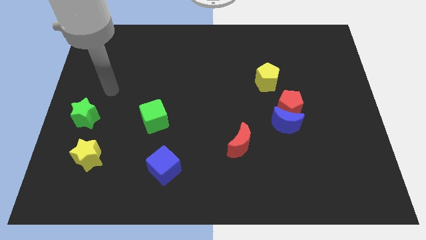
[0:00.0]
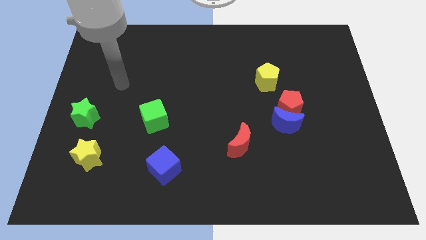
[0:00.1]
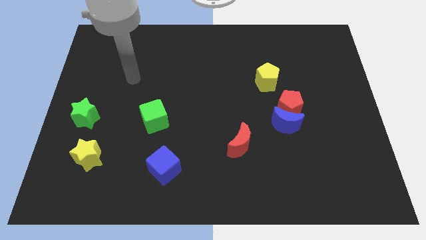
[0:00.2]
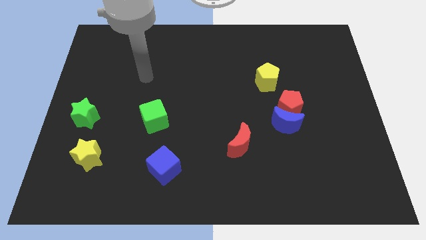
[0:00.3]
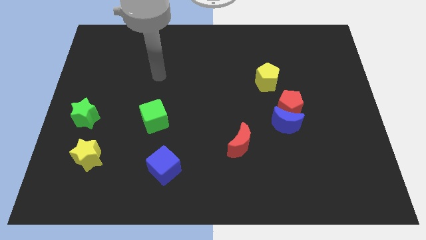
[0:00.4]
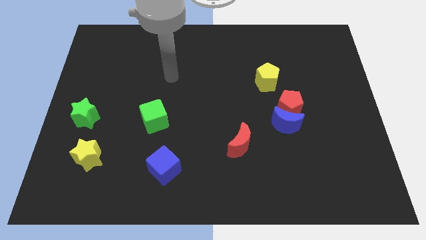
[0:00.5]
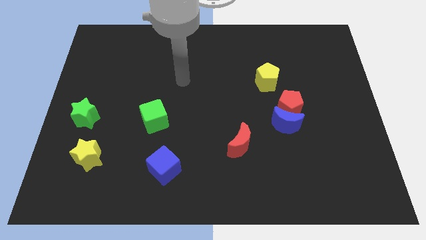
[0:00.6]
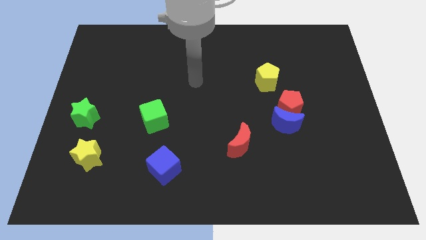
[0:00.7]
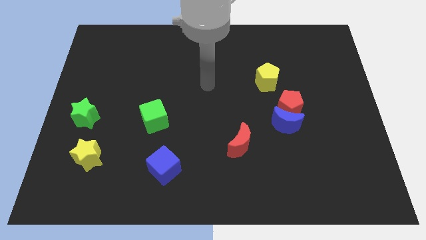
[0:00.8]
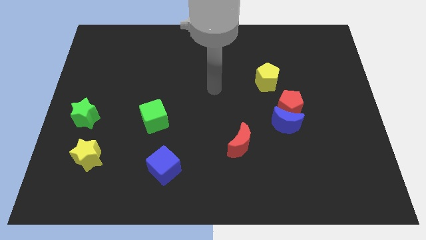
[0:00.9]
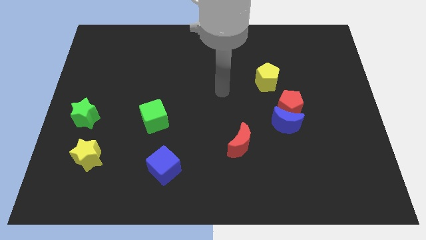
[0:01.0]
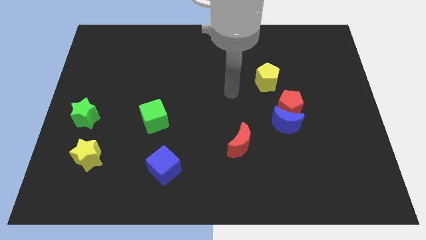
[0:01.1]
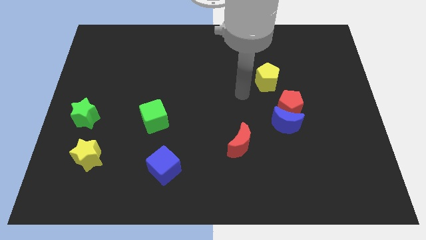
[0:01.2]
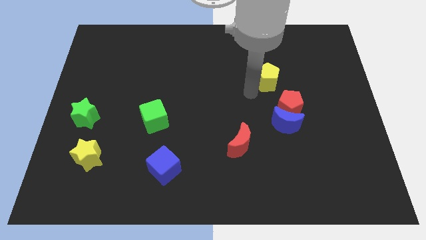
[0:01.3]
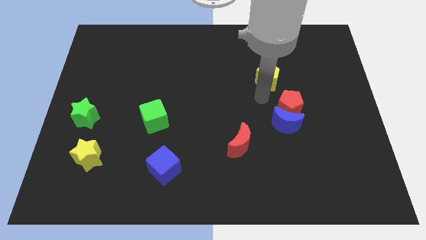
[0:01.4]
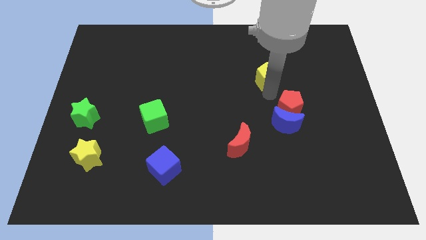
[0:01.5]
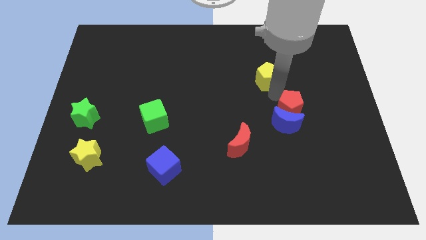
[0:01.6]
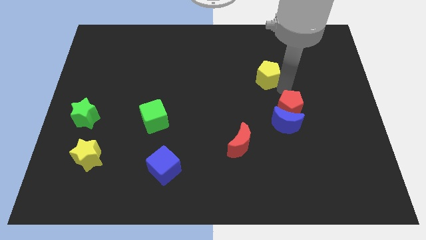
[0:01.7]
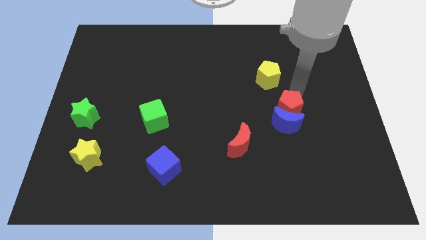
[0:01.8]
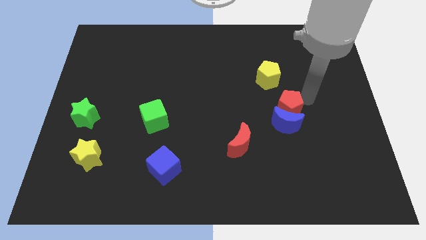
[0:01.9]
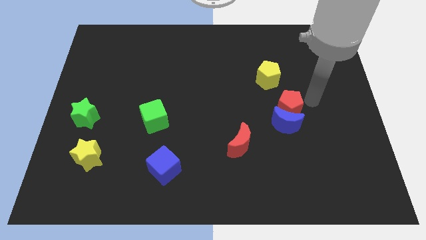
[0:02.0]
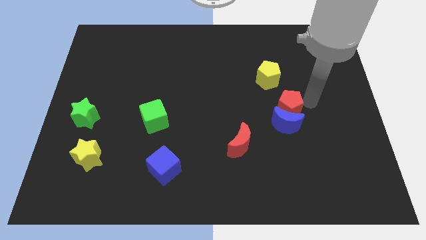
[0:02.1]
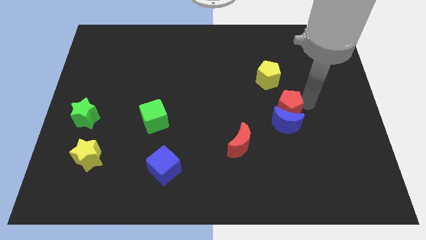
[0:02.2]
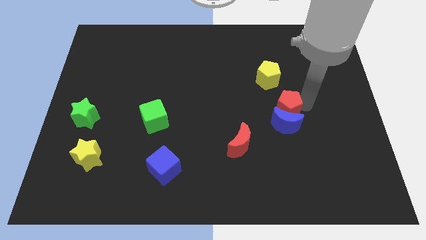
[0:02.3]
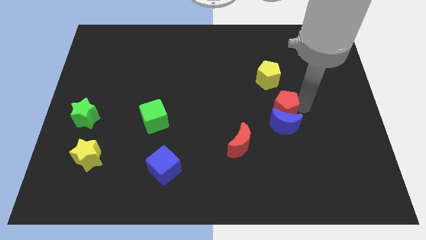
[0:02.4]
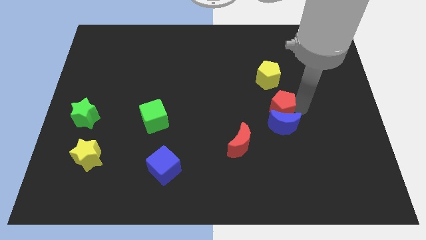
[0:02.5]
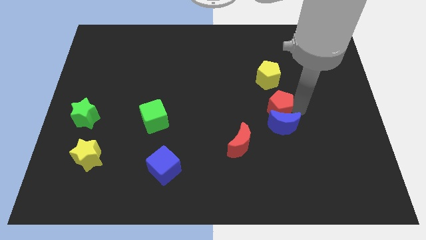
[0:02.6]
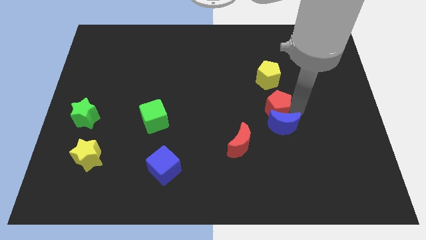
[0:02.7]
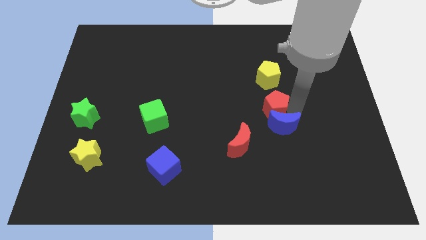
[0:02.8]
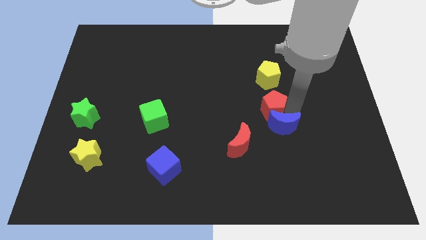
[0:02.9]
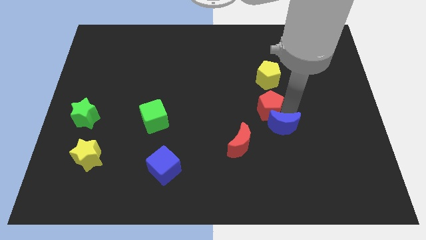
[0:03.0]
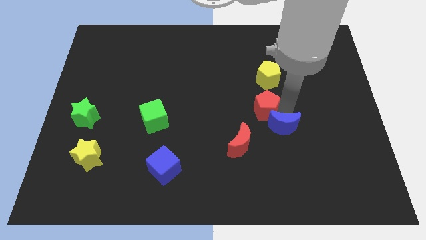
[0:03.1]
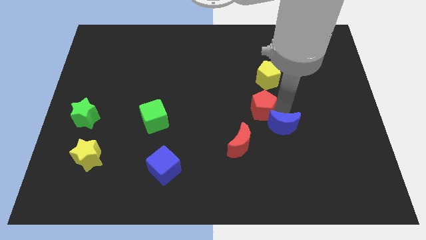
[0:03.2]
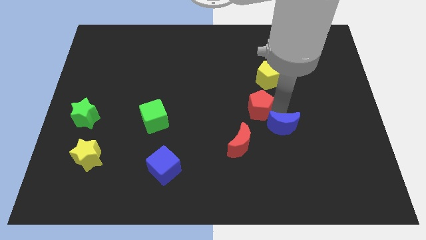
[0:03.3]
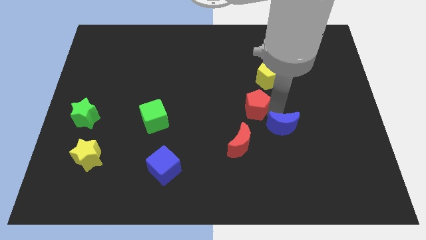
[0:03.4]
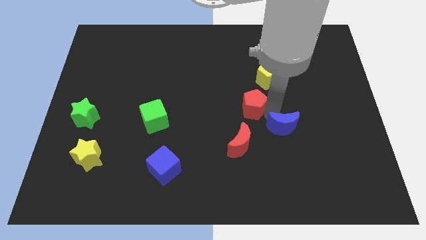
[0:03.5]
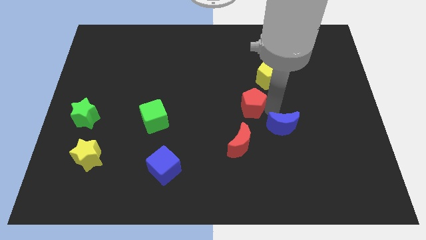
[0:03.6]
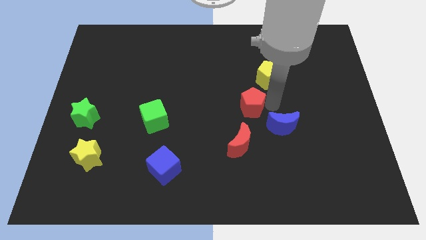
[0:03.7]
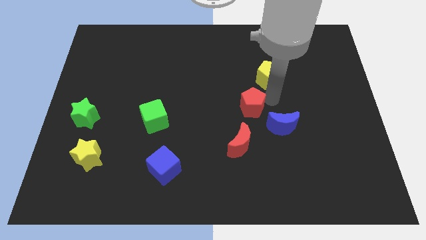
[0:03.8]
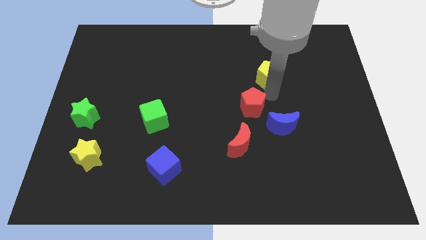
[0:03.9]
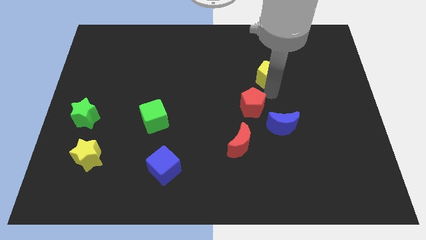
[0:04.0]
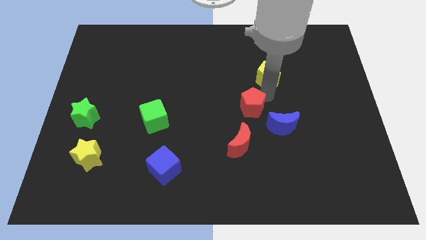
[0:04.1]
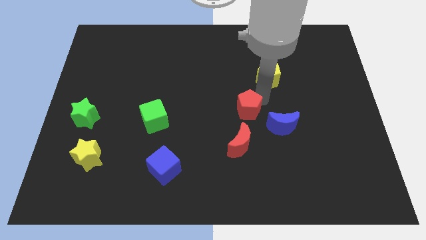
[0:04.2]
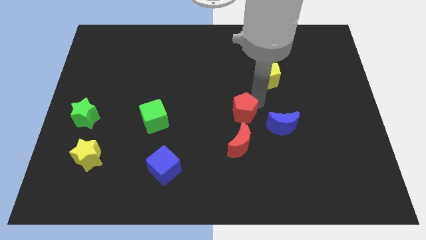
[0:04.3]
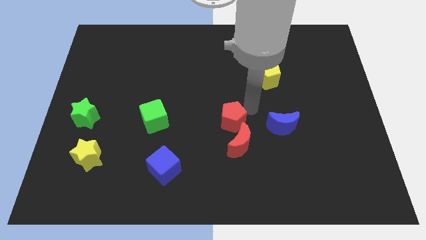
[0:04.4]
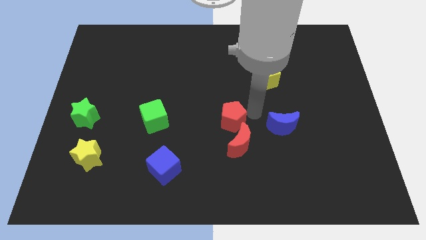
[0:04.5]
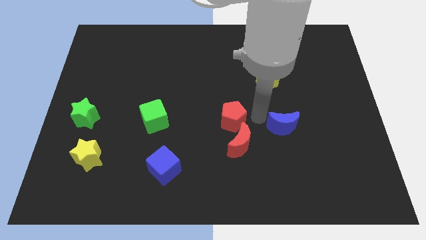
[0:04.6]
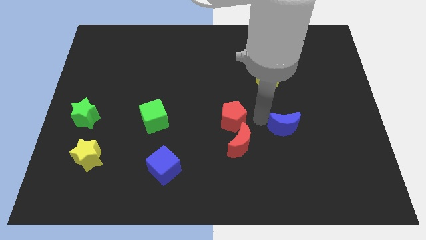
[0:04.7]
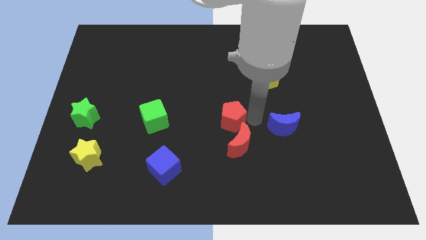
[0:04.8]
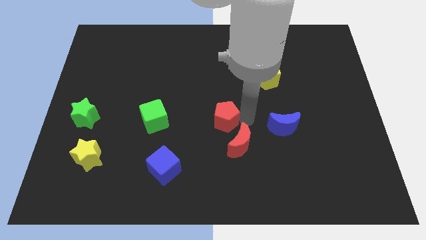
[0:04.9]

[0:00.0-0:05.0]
push the red pentagon to the right side of the green cube

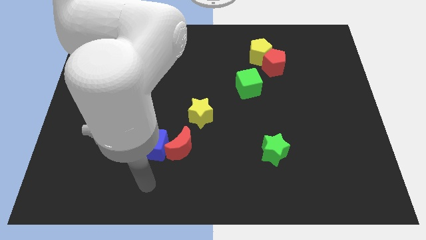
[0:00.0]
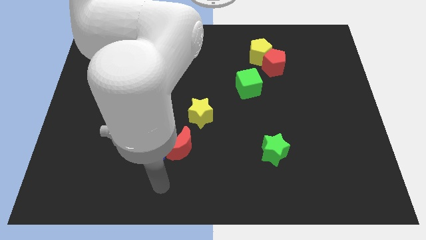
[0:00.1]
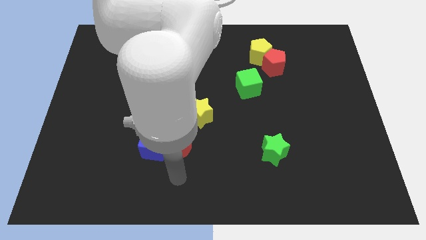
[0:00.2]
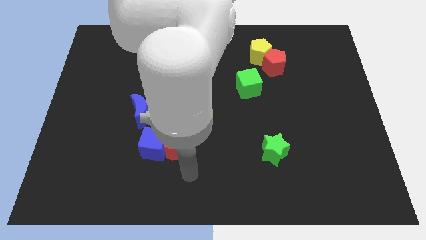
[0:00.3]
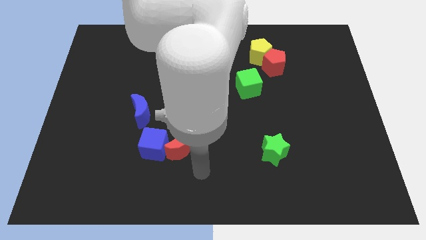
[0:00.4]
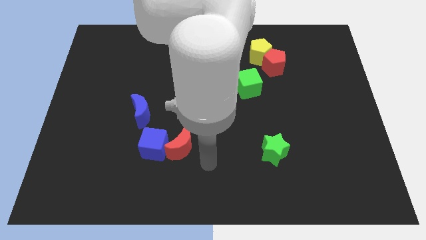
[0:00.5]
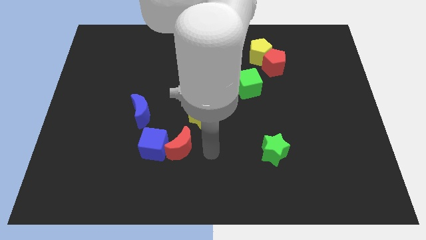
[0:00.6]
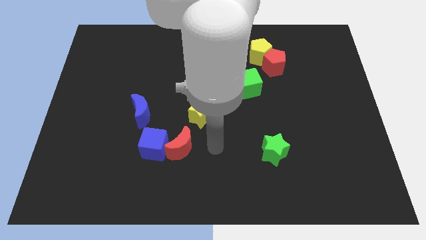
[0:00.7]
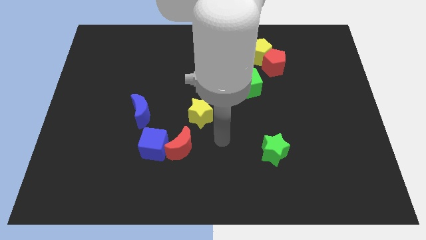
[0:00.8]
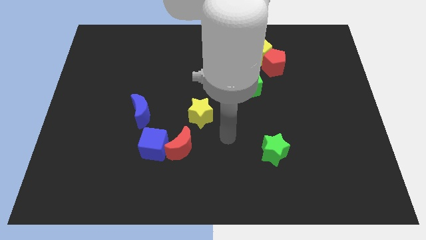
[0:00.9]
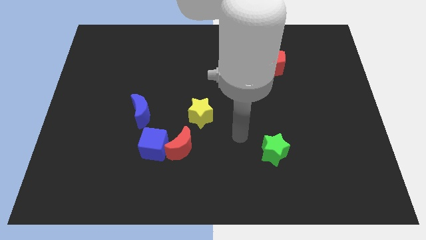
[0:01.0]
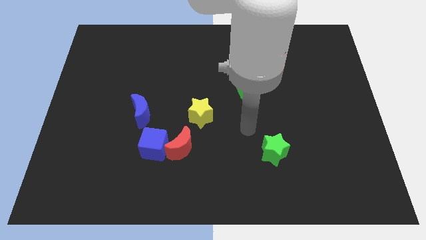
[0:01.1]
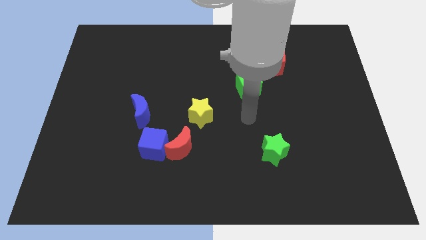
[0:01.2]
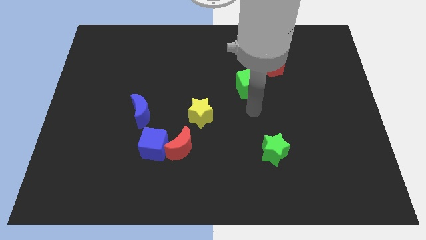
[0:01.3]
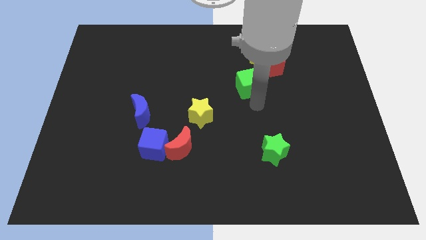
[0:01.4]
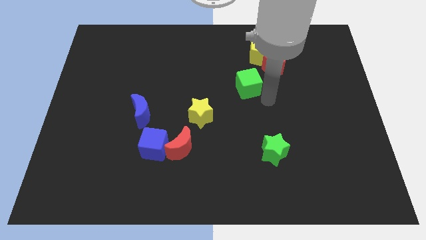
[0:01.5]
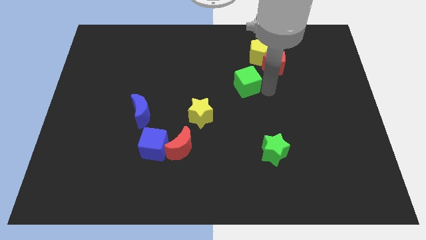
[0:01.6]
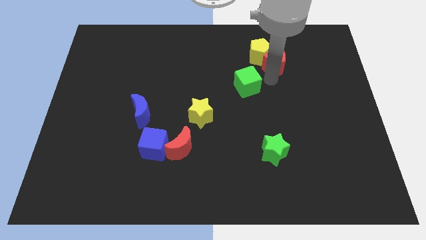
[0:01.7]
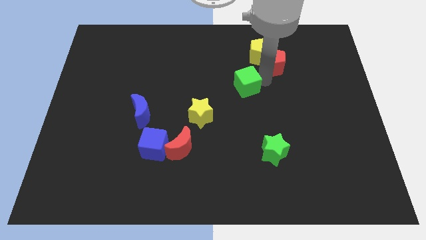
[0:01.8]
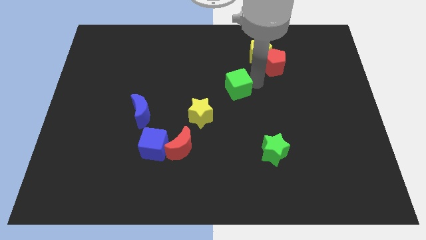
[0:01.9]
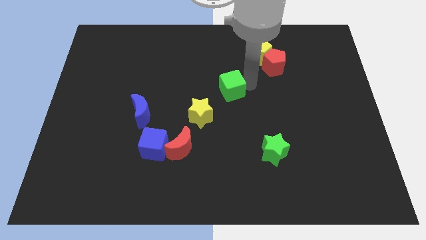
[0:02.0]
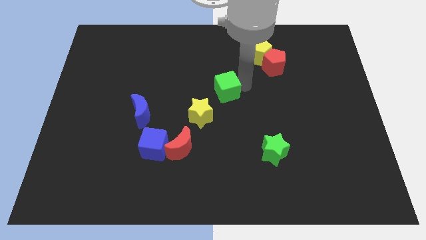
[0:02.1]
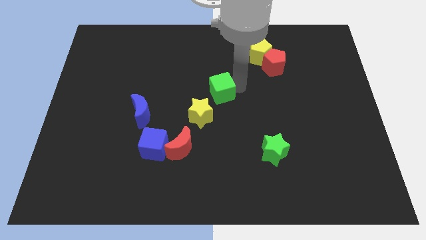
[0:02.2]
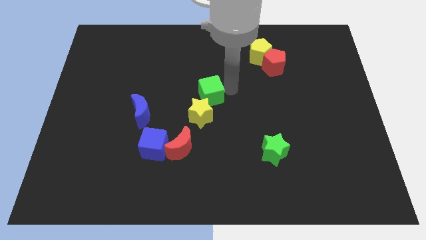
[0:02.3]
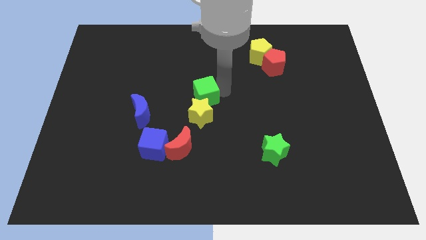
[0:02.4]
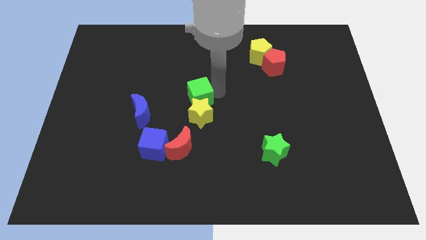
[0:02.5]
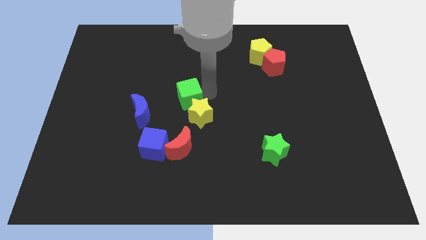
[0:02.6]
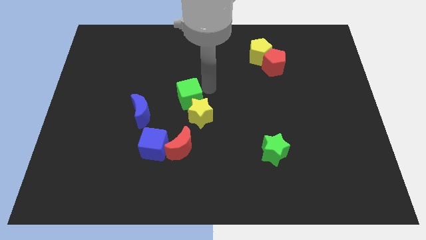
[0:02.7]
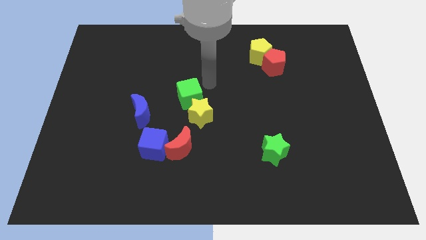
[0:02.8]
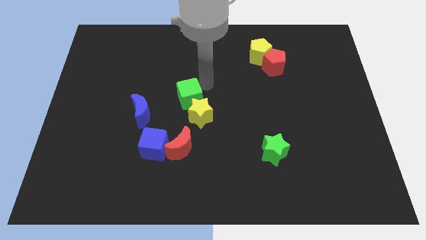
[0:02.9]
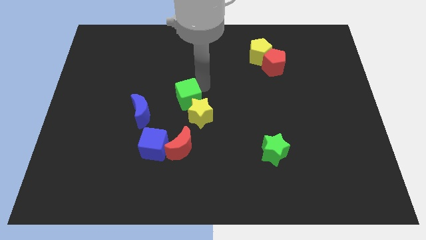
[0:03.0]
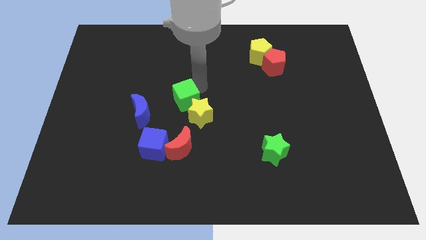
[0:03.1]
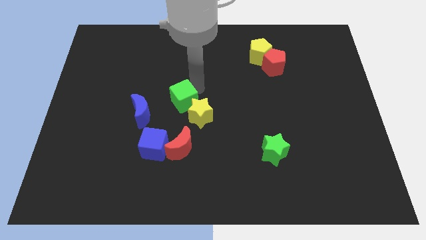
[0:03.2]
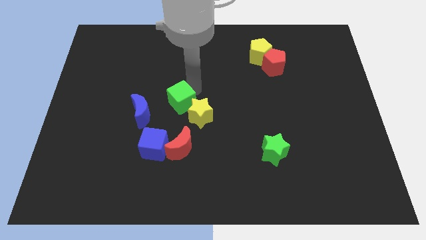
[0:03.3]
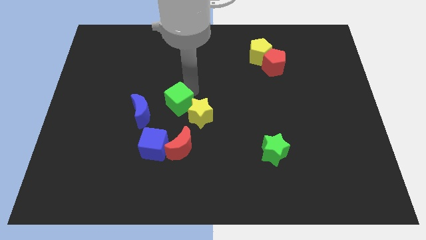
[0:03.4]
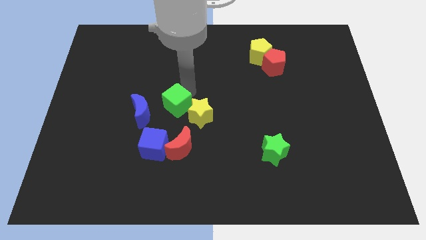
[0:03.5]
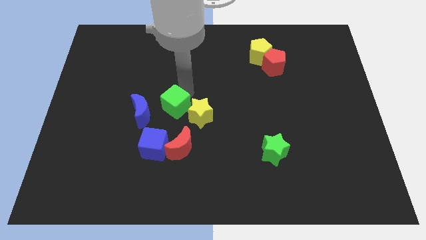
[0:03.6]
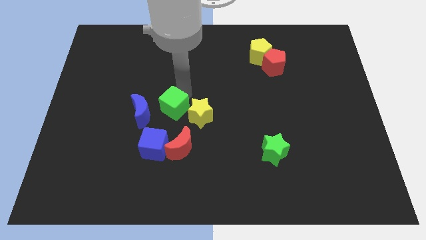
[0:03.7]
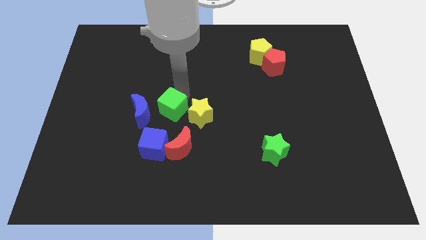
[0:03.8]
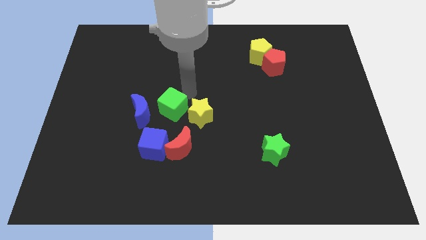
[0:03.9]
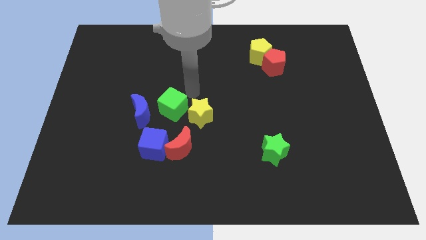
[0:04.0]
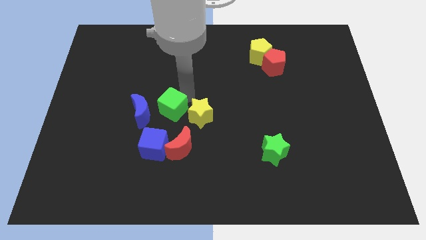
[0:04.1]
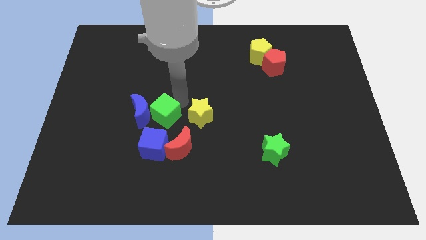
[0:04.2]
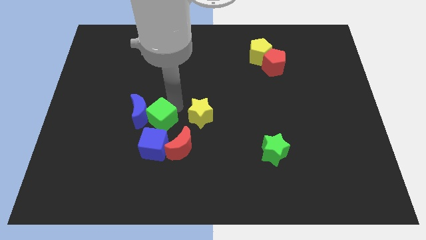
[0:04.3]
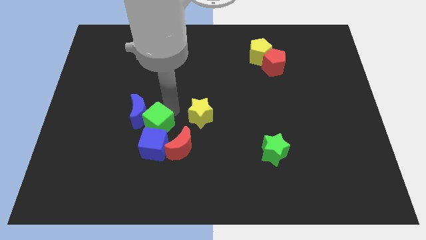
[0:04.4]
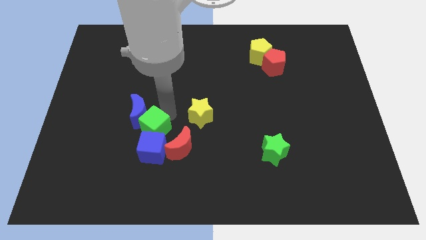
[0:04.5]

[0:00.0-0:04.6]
slide the green cube below the blue moon
